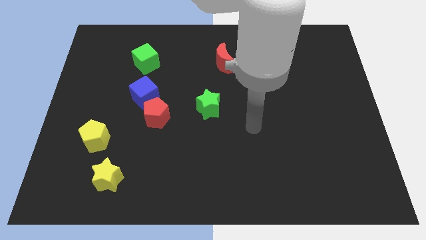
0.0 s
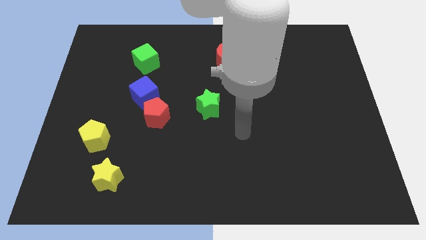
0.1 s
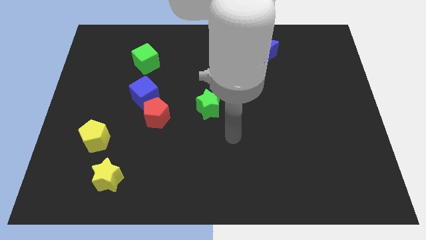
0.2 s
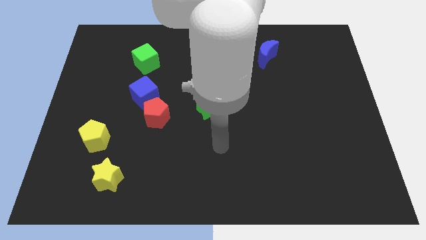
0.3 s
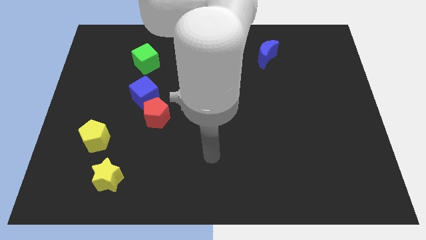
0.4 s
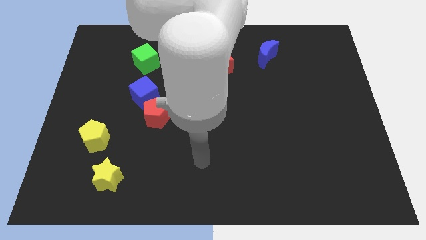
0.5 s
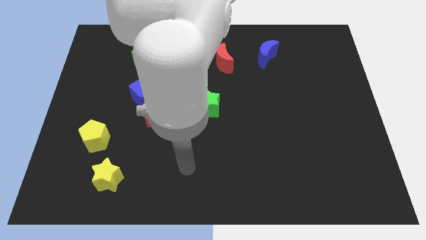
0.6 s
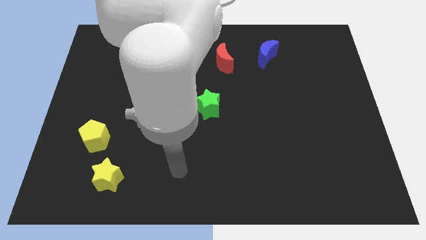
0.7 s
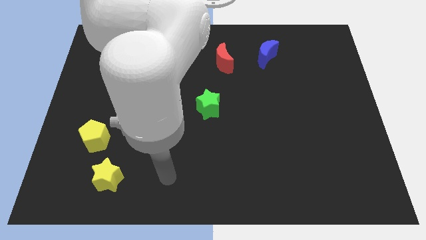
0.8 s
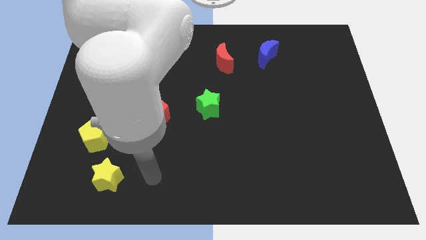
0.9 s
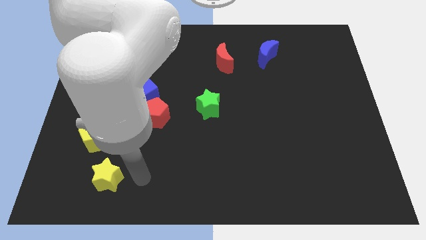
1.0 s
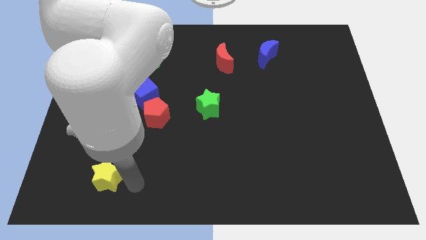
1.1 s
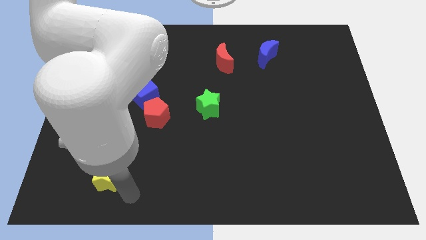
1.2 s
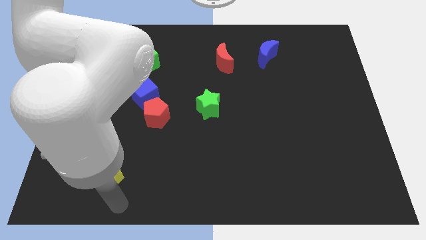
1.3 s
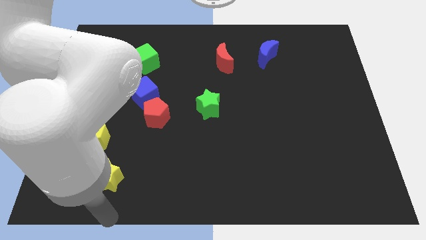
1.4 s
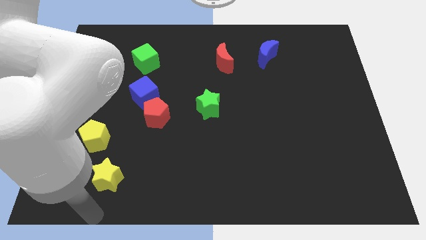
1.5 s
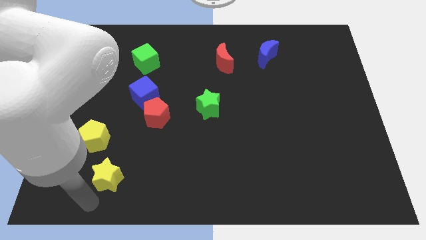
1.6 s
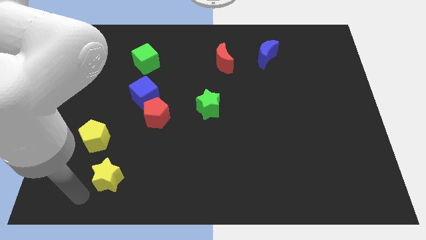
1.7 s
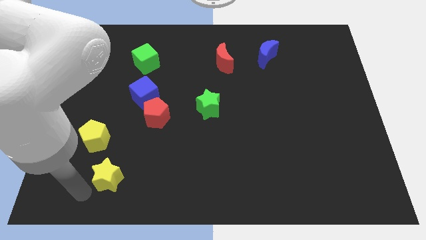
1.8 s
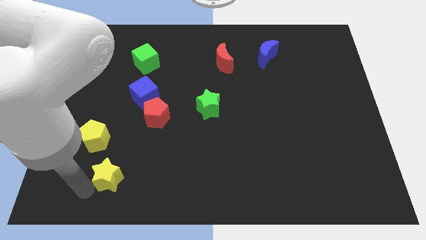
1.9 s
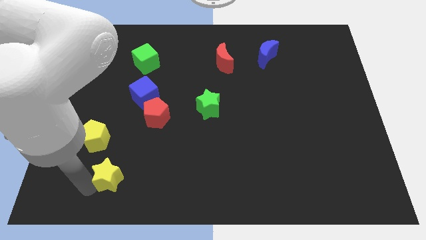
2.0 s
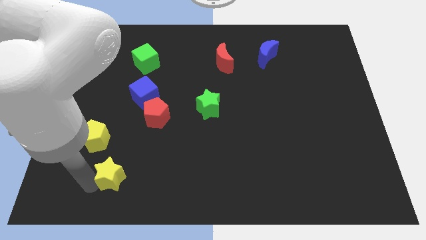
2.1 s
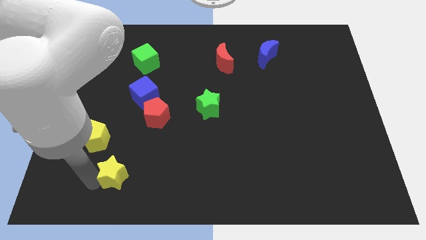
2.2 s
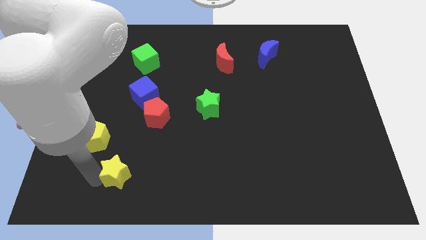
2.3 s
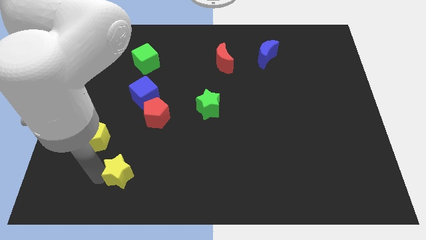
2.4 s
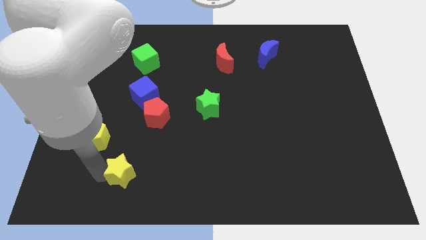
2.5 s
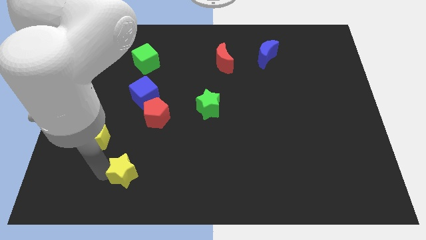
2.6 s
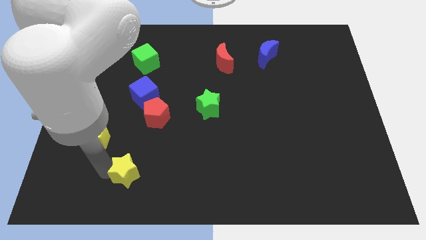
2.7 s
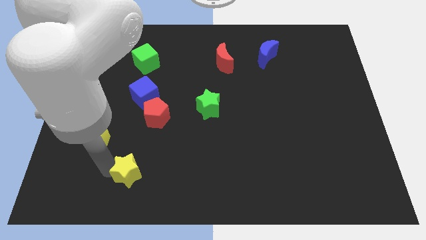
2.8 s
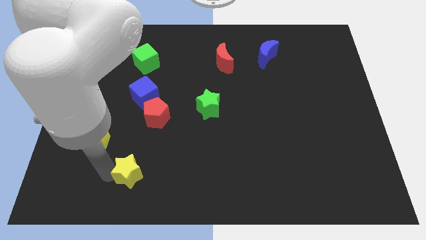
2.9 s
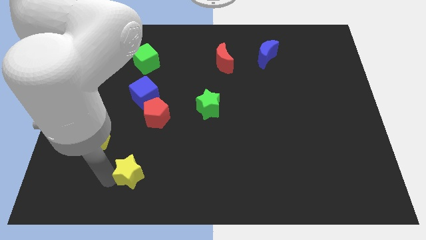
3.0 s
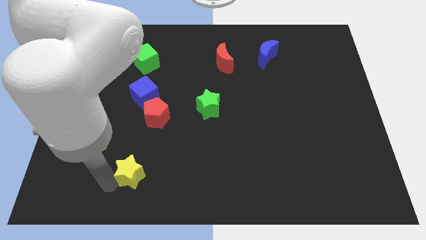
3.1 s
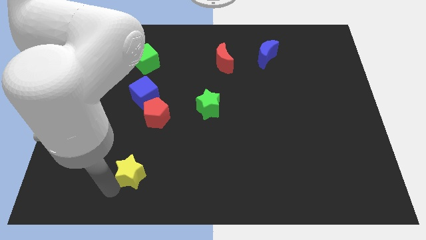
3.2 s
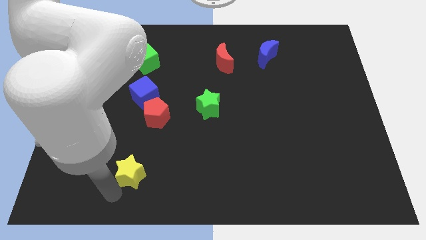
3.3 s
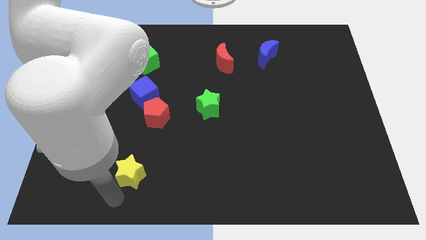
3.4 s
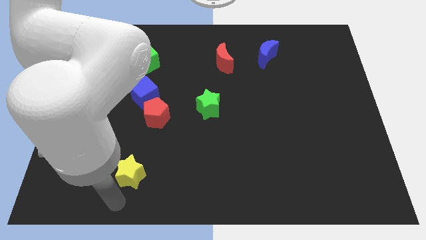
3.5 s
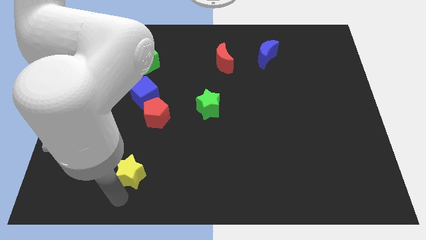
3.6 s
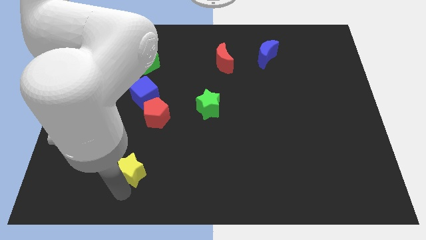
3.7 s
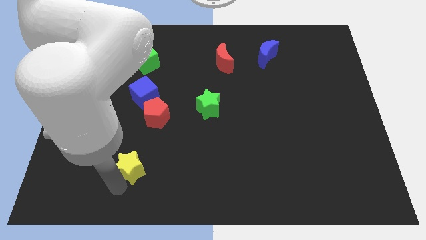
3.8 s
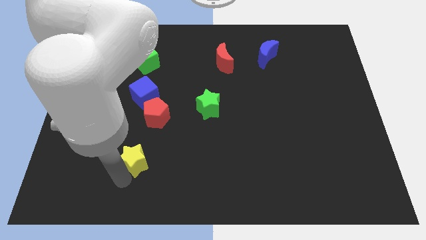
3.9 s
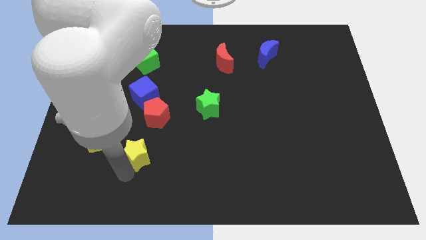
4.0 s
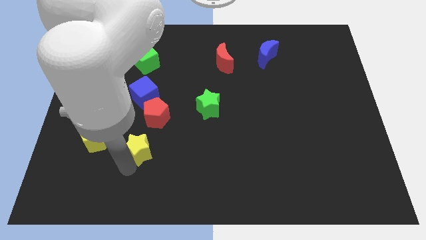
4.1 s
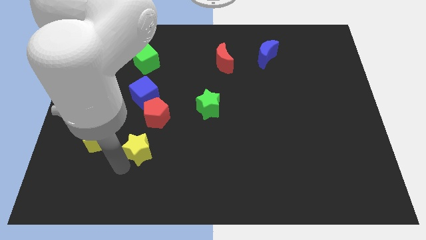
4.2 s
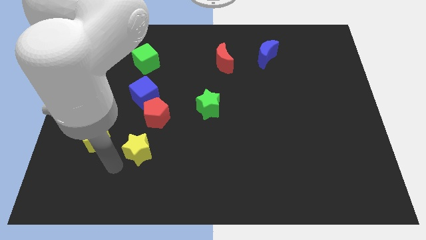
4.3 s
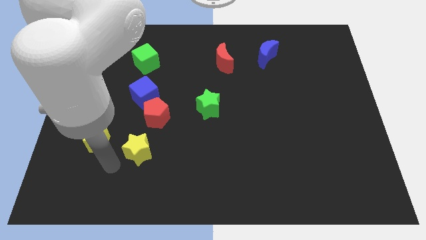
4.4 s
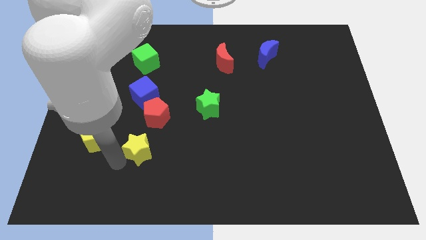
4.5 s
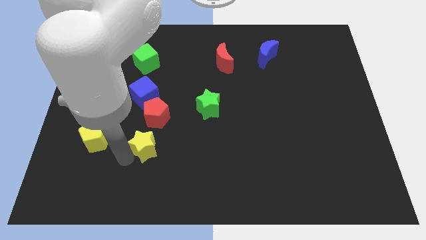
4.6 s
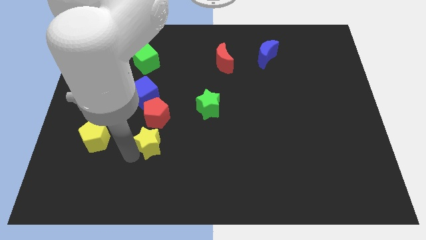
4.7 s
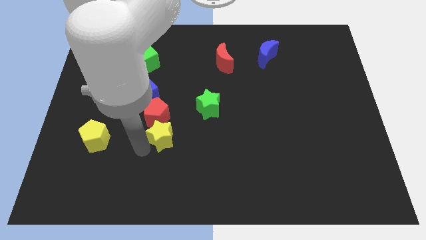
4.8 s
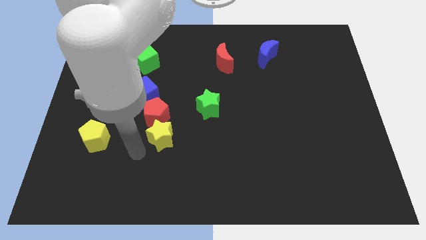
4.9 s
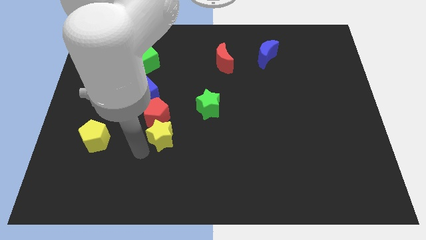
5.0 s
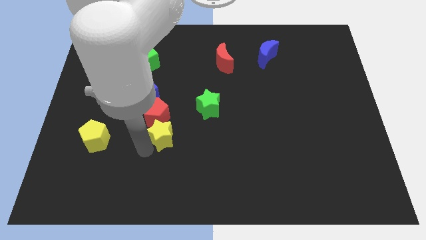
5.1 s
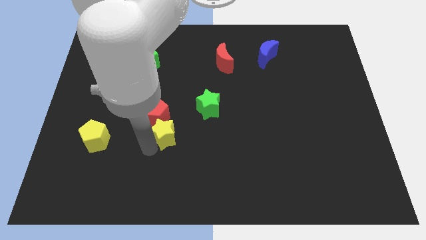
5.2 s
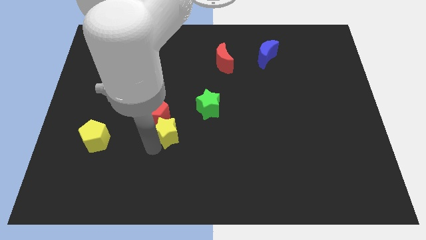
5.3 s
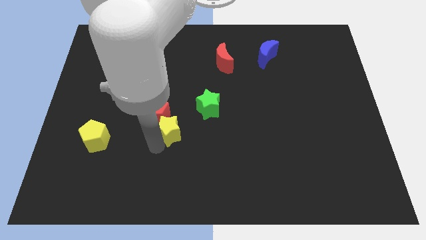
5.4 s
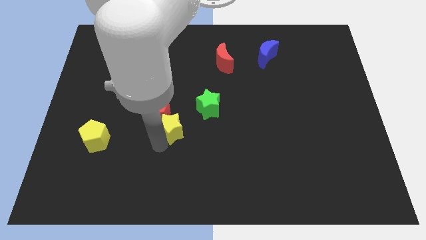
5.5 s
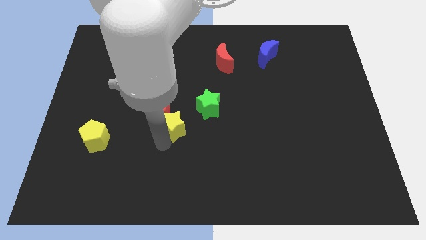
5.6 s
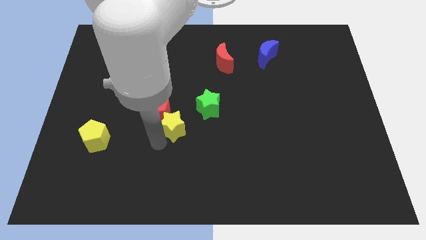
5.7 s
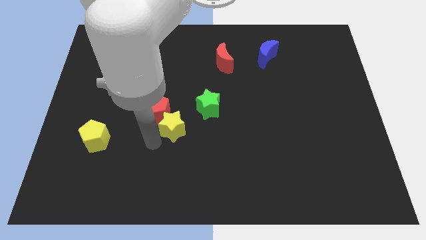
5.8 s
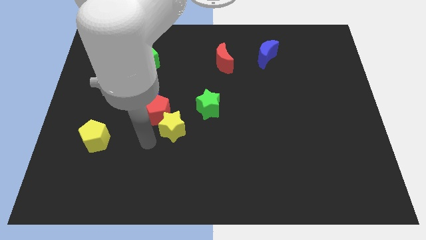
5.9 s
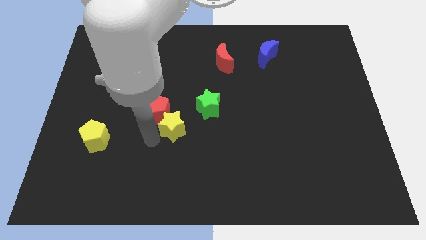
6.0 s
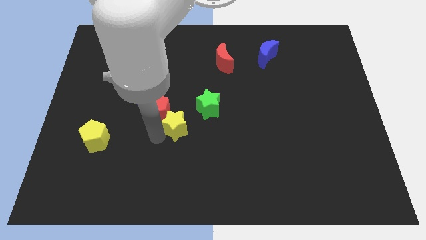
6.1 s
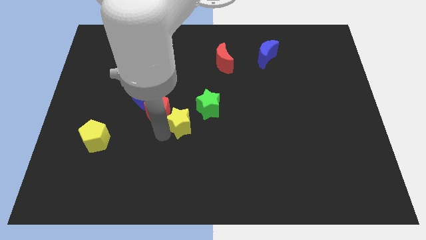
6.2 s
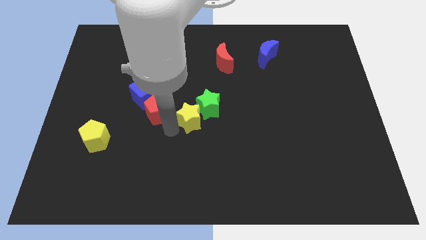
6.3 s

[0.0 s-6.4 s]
put the yellow star towards the green star

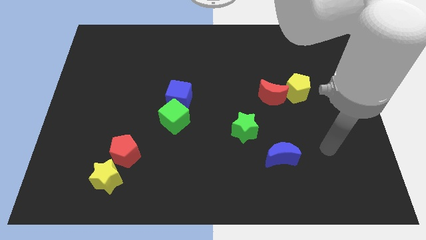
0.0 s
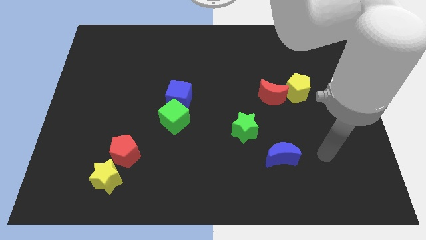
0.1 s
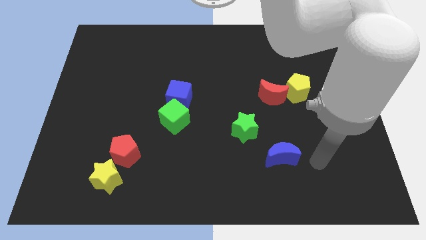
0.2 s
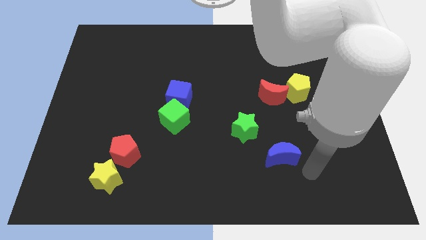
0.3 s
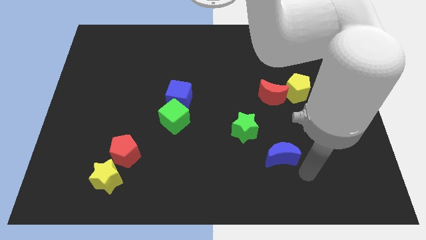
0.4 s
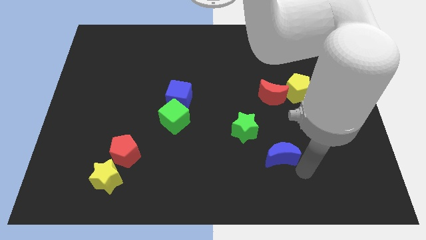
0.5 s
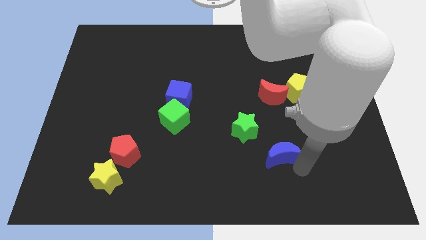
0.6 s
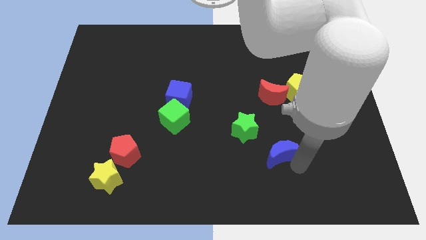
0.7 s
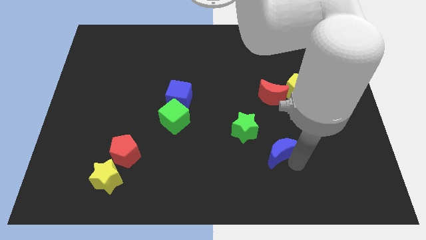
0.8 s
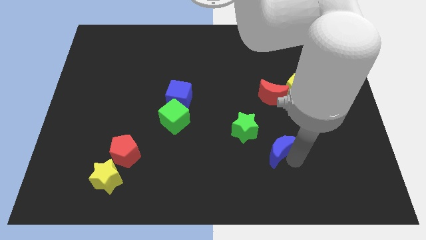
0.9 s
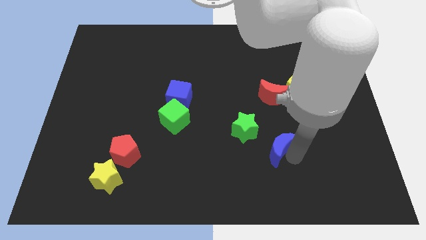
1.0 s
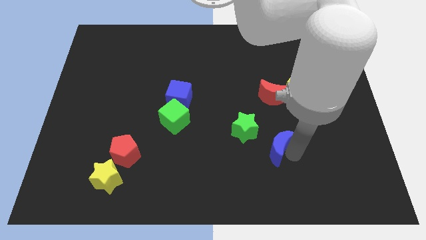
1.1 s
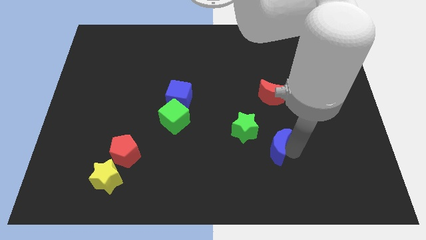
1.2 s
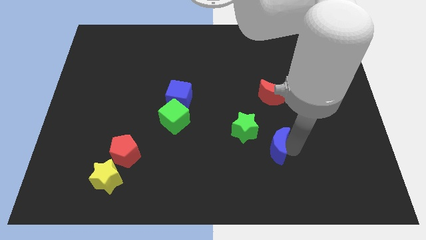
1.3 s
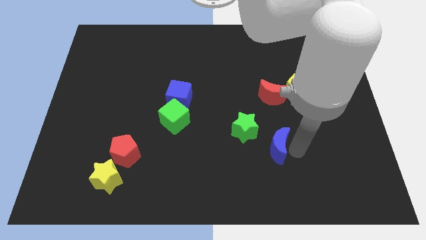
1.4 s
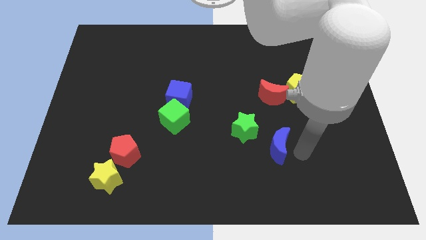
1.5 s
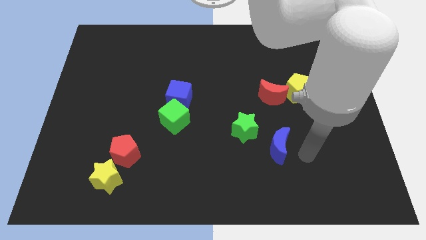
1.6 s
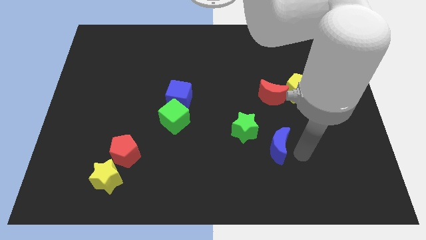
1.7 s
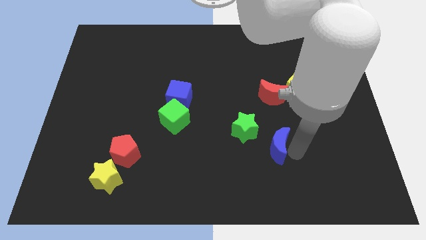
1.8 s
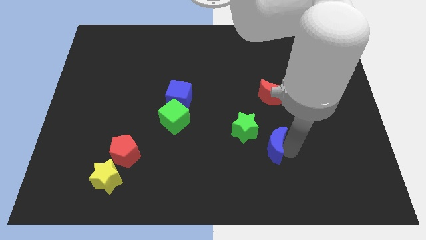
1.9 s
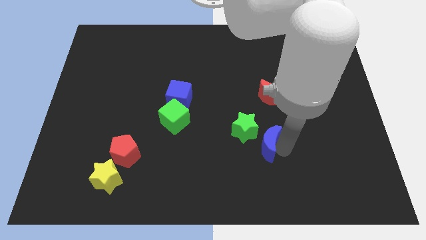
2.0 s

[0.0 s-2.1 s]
slide the blue moon close to the green star
